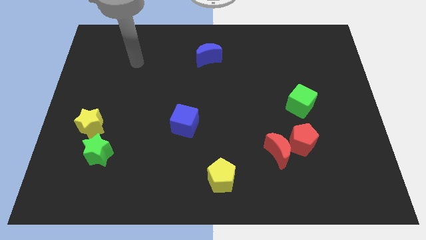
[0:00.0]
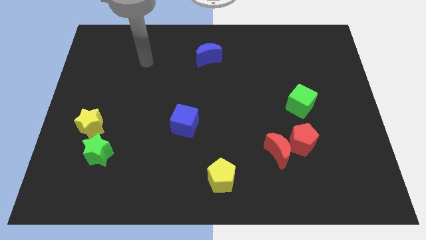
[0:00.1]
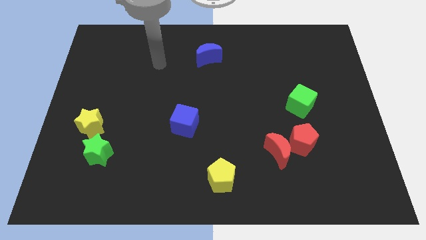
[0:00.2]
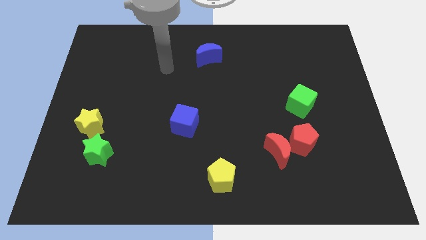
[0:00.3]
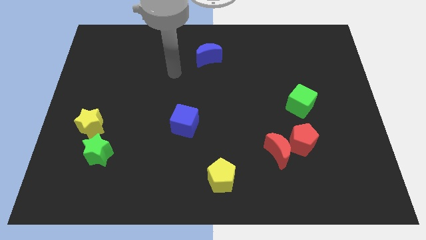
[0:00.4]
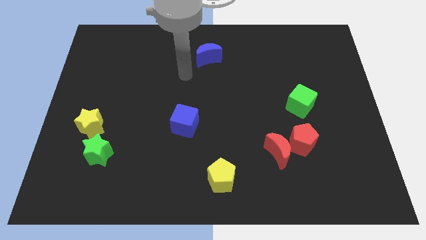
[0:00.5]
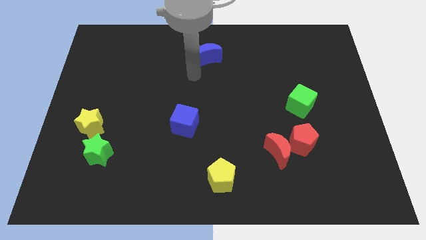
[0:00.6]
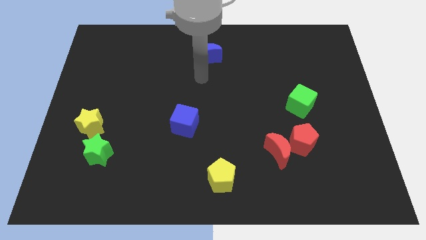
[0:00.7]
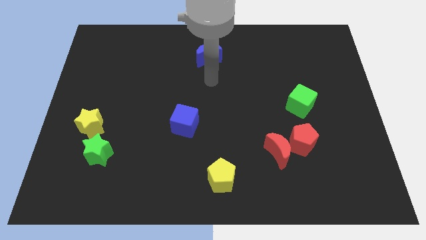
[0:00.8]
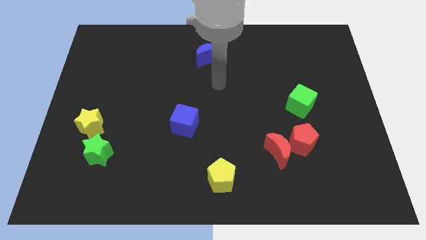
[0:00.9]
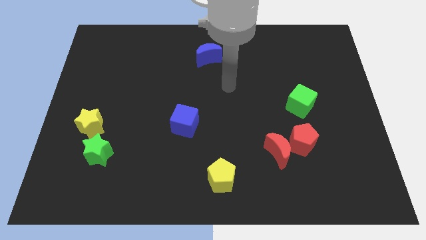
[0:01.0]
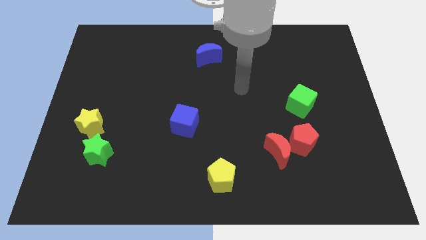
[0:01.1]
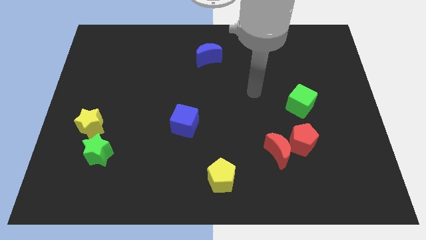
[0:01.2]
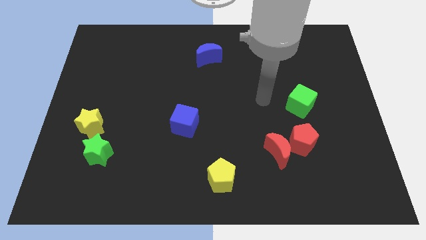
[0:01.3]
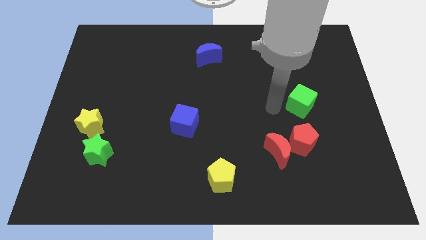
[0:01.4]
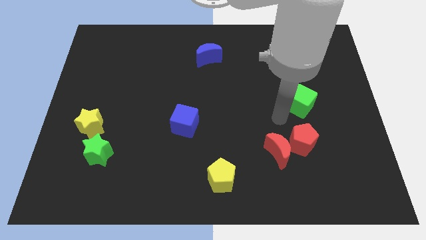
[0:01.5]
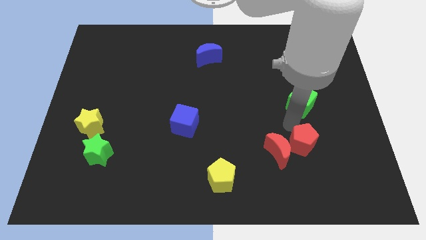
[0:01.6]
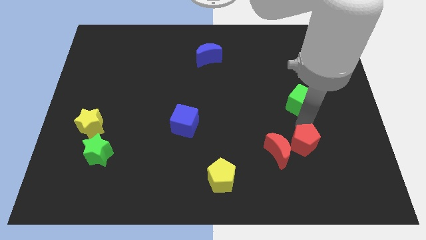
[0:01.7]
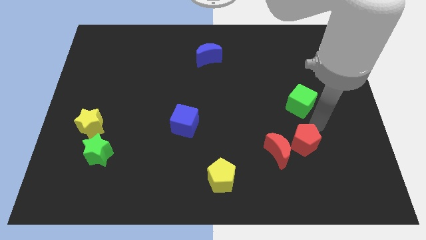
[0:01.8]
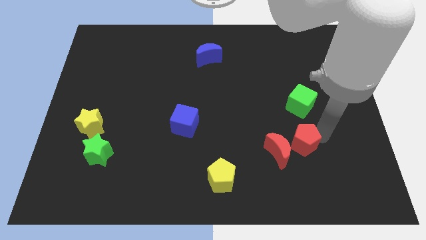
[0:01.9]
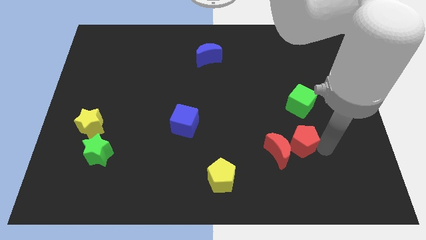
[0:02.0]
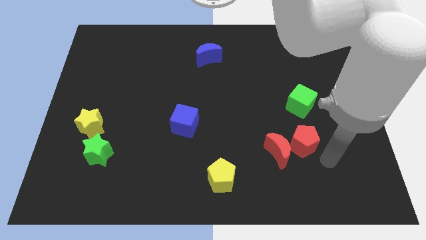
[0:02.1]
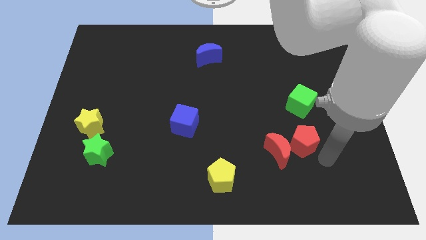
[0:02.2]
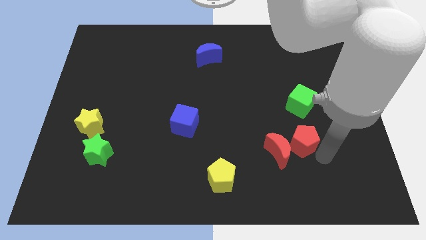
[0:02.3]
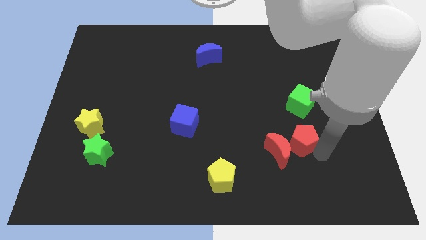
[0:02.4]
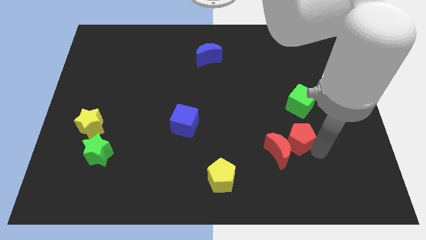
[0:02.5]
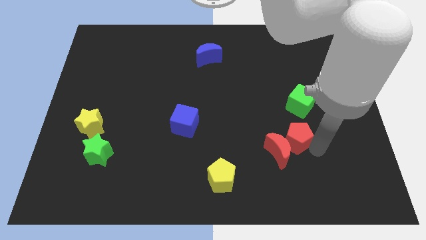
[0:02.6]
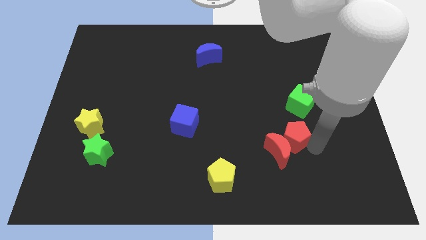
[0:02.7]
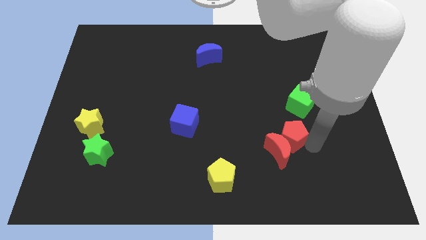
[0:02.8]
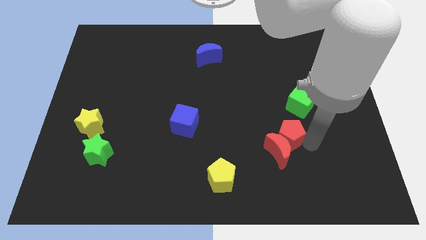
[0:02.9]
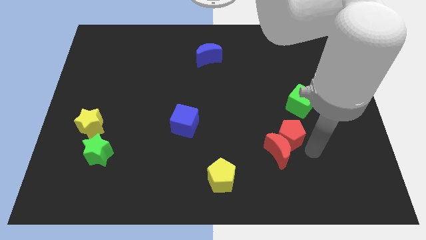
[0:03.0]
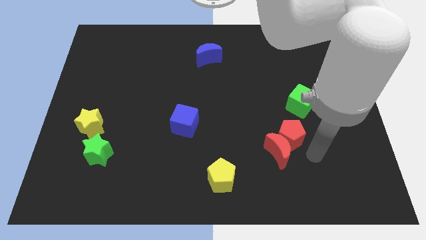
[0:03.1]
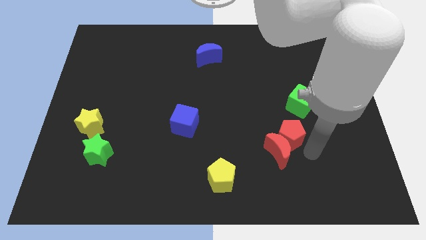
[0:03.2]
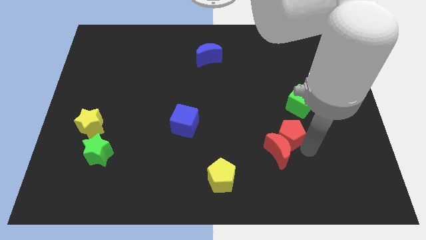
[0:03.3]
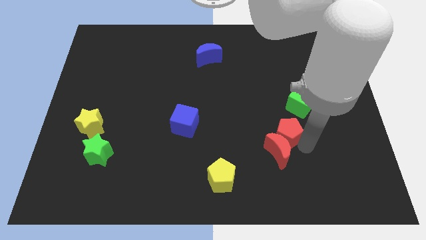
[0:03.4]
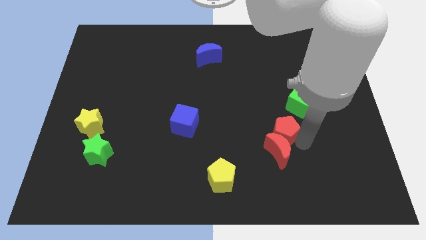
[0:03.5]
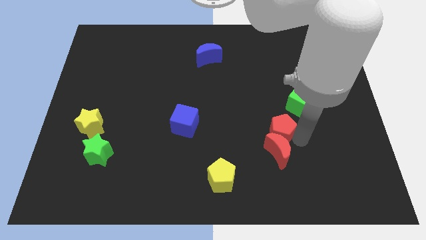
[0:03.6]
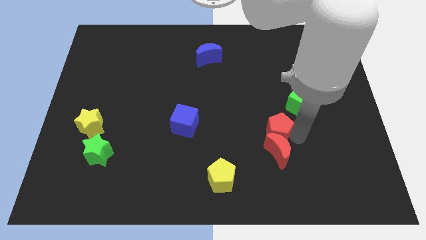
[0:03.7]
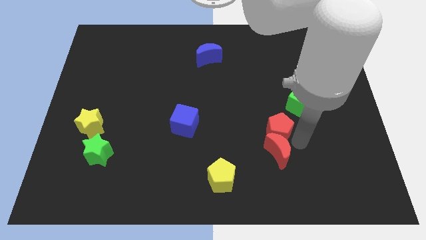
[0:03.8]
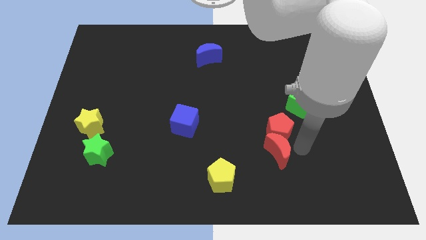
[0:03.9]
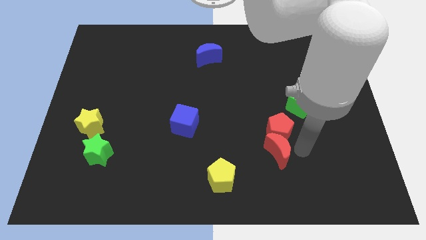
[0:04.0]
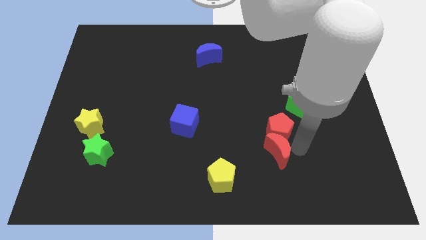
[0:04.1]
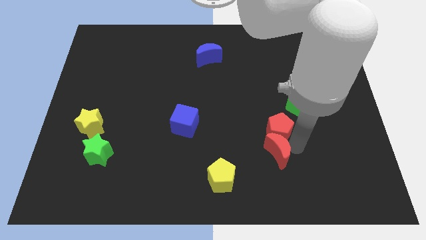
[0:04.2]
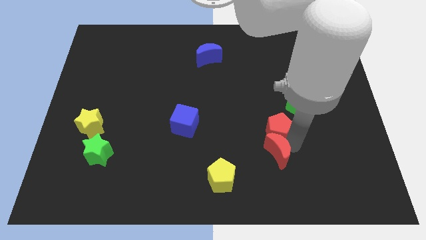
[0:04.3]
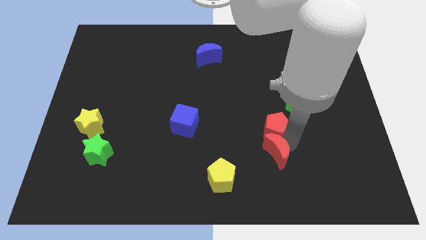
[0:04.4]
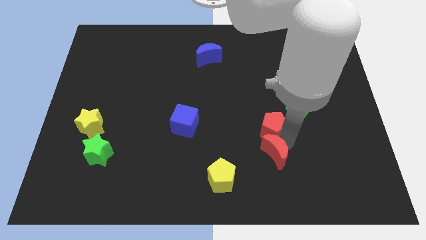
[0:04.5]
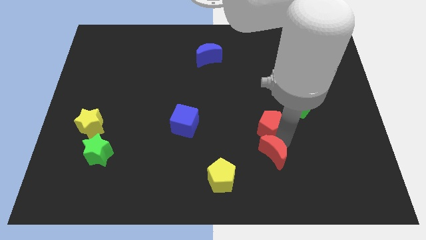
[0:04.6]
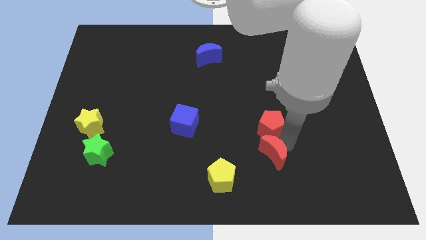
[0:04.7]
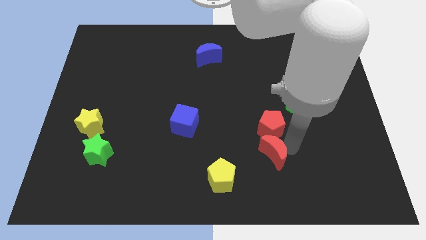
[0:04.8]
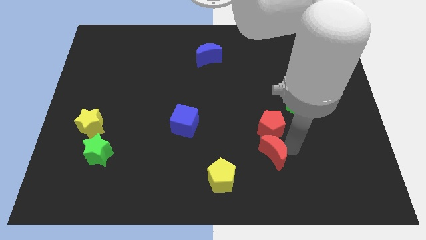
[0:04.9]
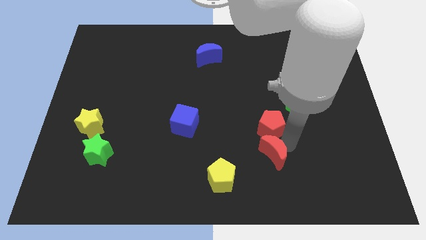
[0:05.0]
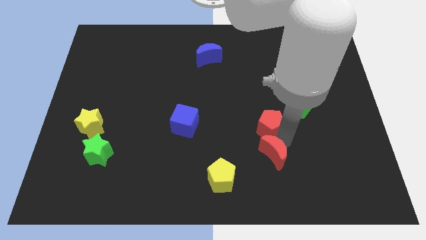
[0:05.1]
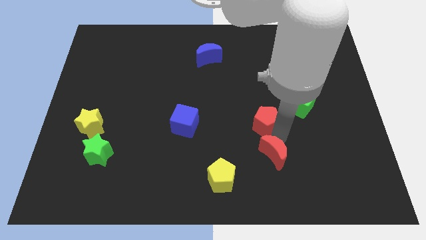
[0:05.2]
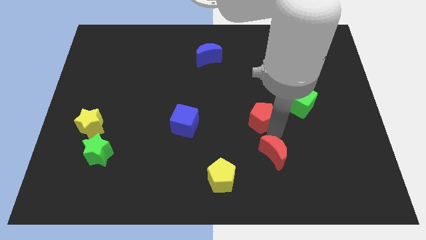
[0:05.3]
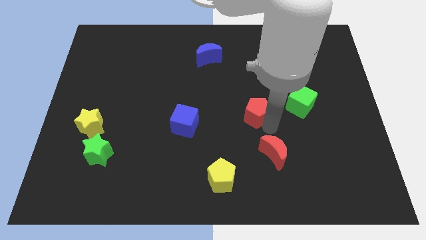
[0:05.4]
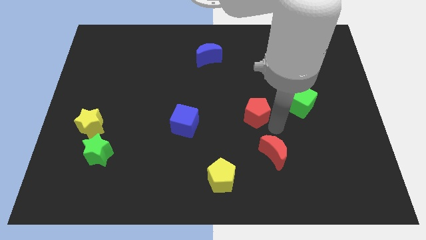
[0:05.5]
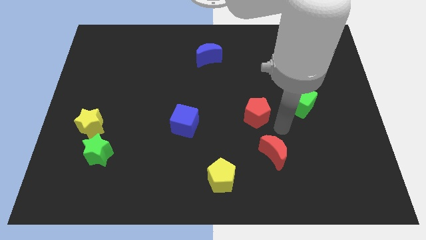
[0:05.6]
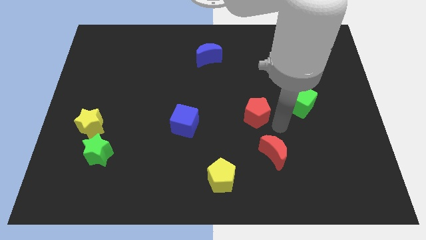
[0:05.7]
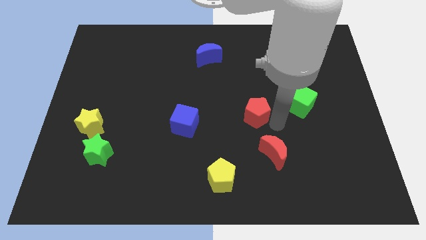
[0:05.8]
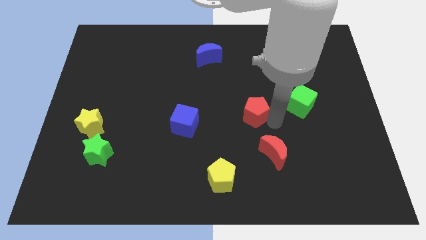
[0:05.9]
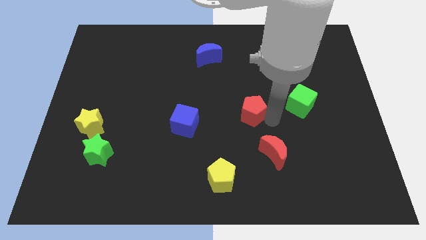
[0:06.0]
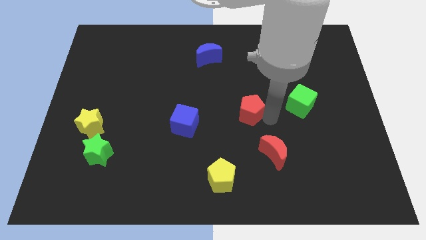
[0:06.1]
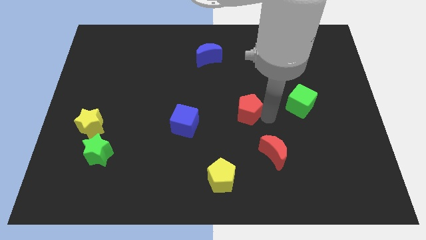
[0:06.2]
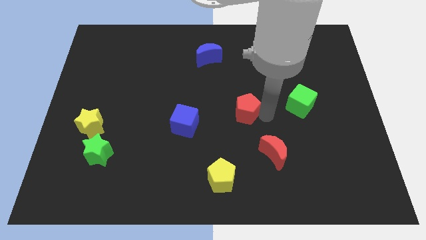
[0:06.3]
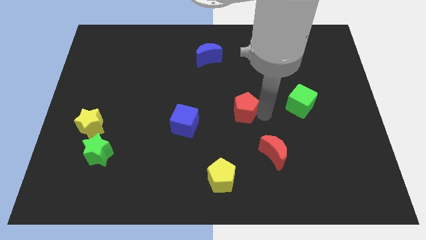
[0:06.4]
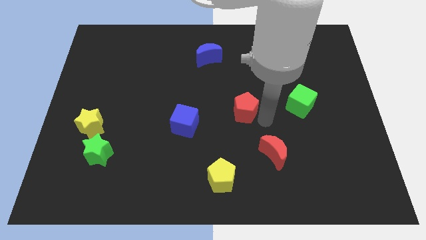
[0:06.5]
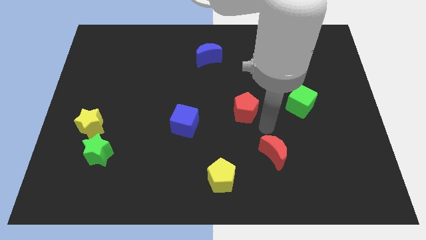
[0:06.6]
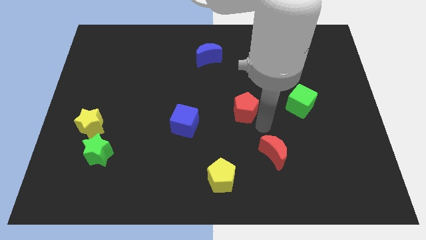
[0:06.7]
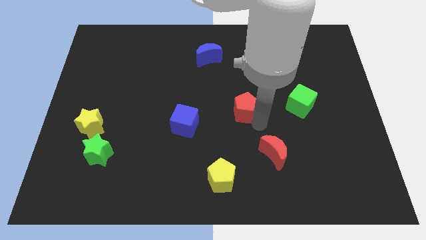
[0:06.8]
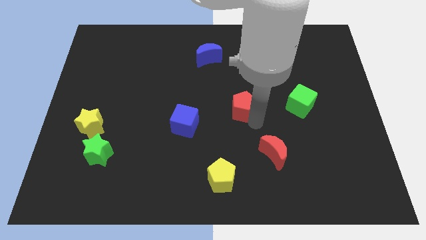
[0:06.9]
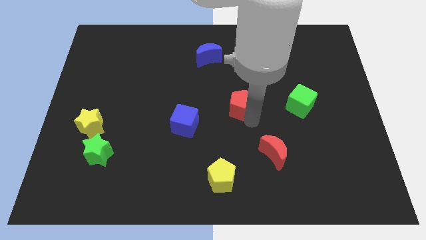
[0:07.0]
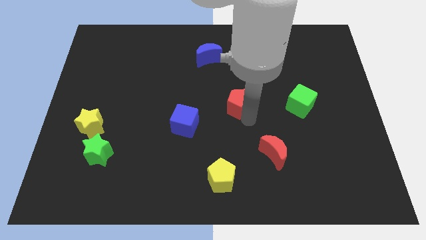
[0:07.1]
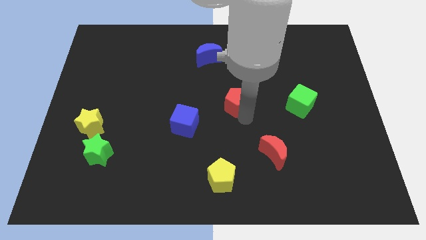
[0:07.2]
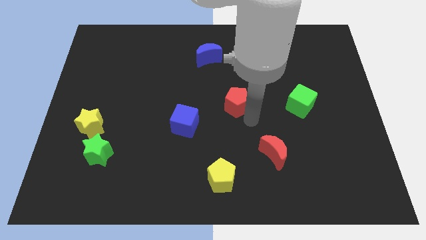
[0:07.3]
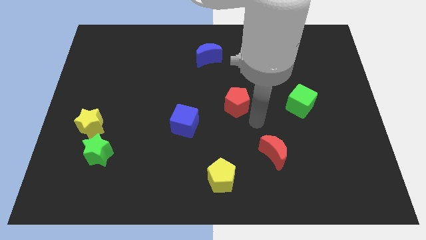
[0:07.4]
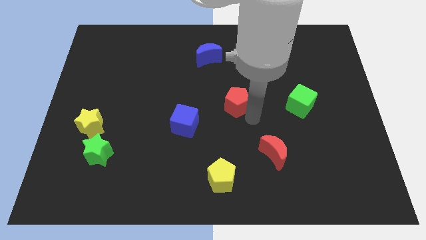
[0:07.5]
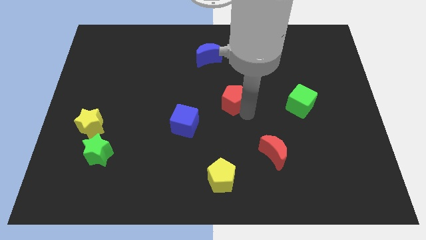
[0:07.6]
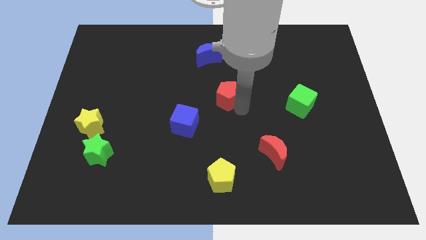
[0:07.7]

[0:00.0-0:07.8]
push the red pentagon upwards and left diagonally

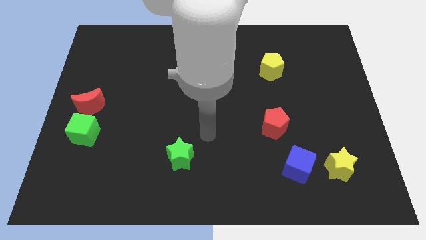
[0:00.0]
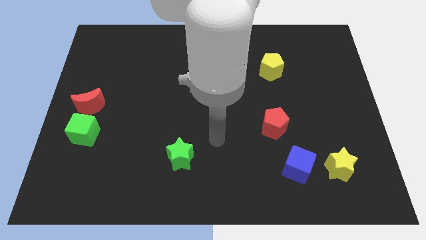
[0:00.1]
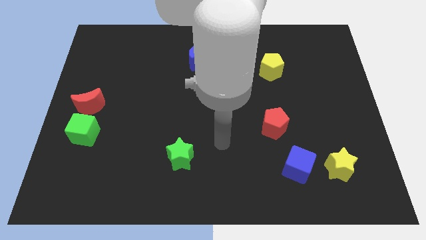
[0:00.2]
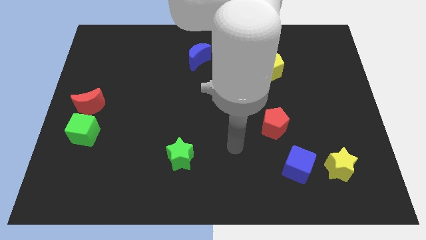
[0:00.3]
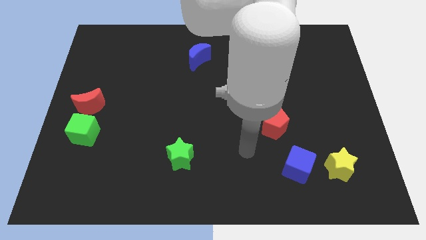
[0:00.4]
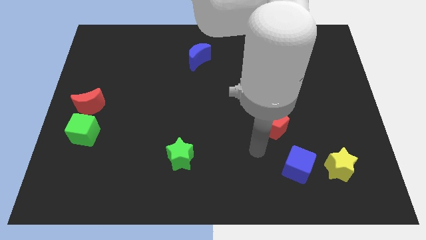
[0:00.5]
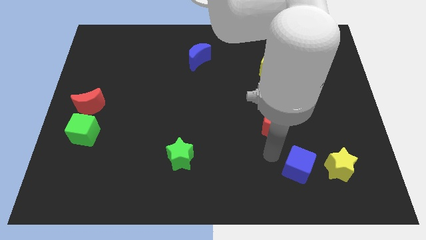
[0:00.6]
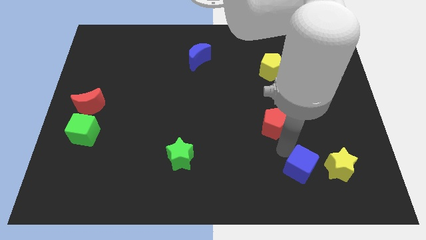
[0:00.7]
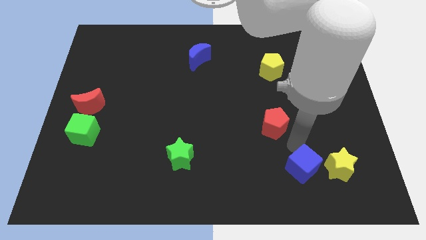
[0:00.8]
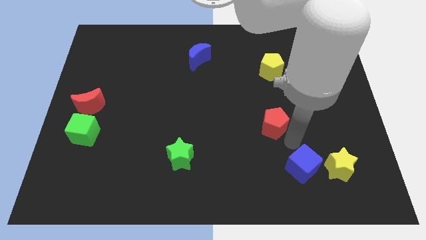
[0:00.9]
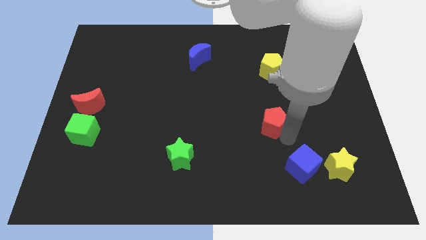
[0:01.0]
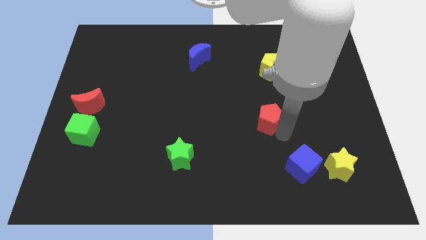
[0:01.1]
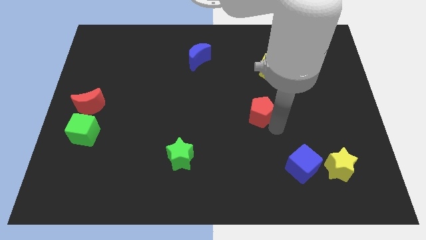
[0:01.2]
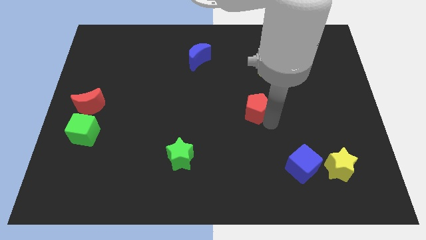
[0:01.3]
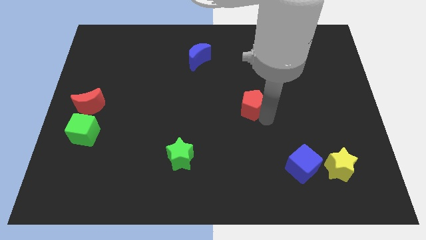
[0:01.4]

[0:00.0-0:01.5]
move the red pentagon up and to the left a bit
